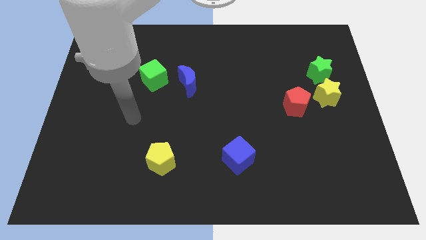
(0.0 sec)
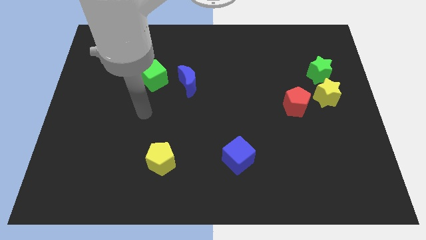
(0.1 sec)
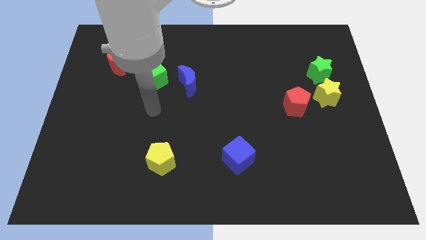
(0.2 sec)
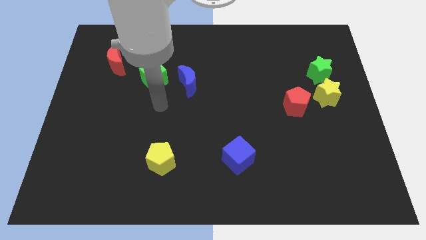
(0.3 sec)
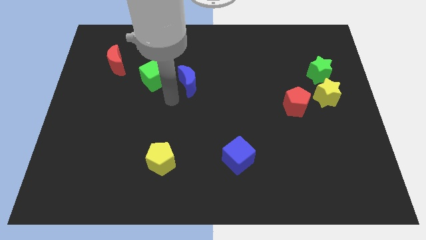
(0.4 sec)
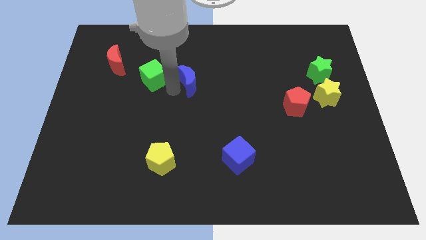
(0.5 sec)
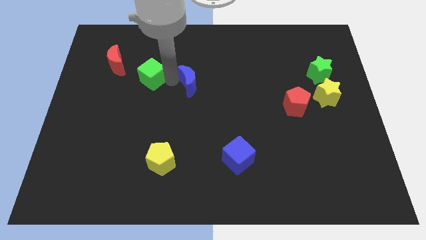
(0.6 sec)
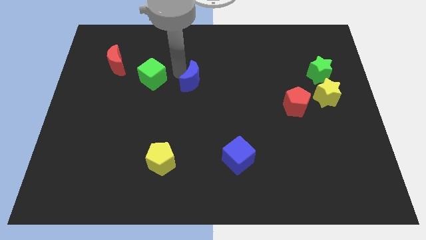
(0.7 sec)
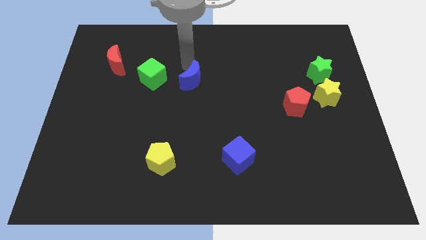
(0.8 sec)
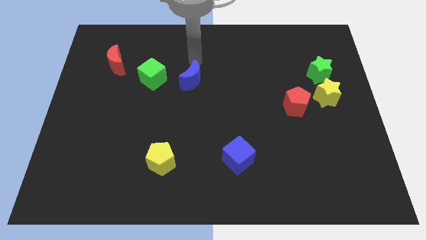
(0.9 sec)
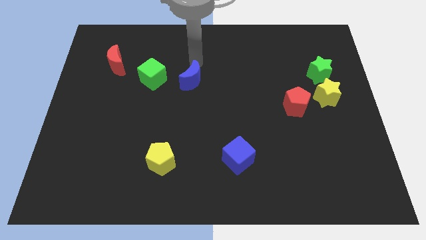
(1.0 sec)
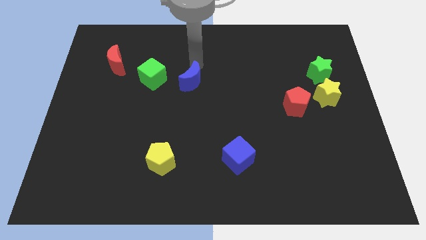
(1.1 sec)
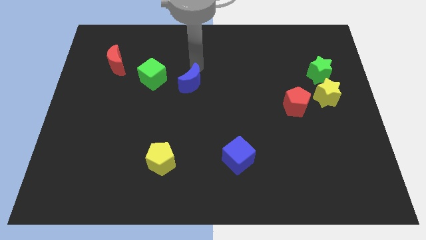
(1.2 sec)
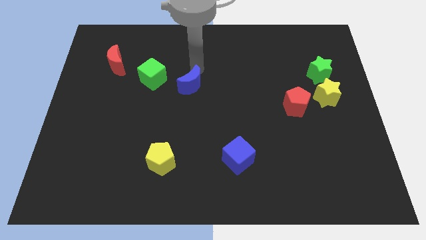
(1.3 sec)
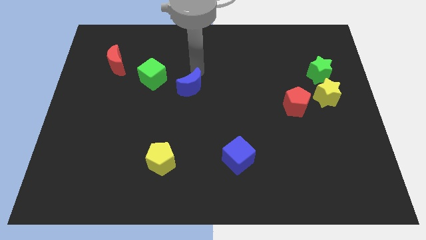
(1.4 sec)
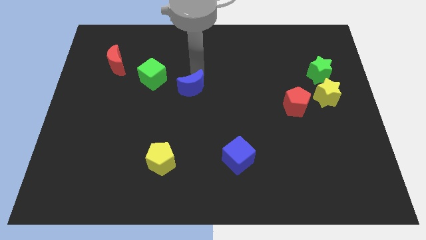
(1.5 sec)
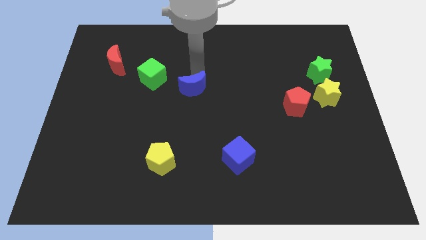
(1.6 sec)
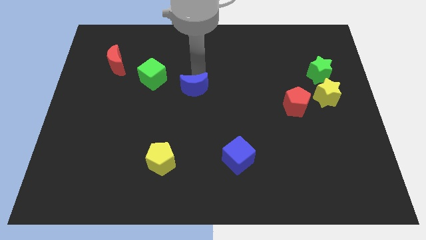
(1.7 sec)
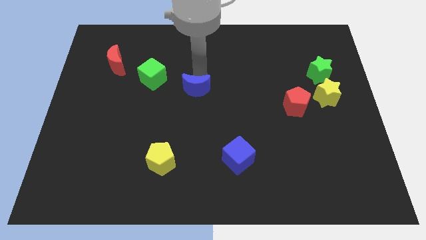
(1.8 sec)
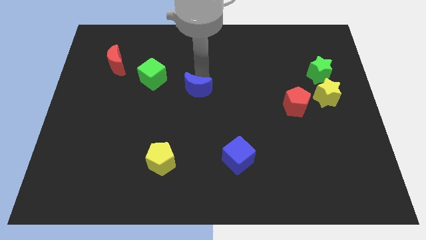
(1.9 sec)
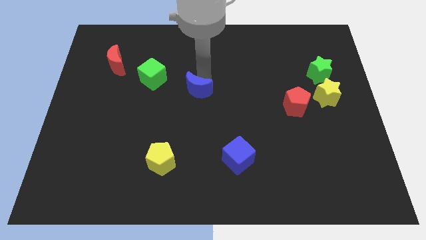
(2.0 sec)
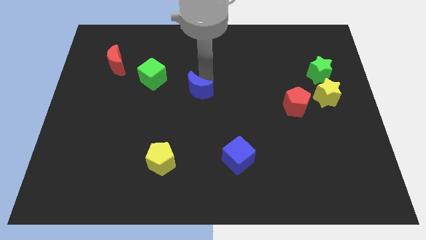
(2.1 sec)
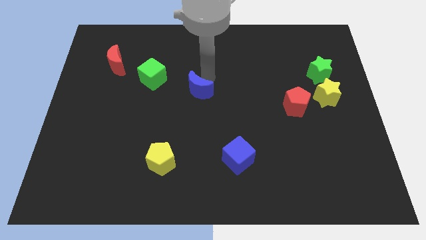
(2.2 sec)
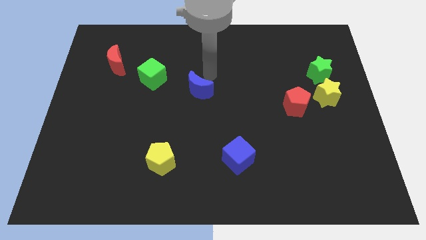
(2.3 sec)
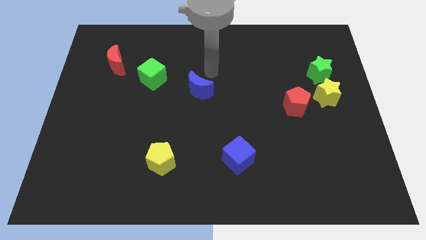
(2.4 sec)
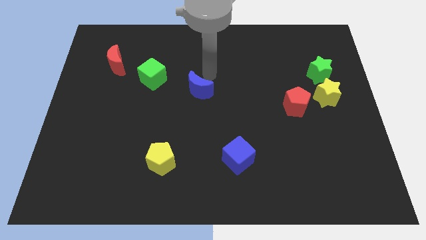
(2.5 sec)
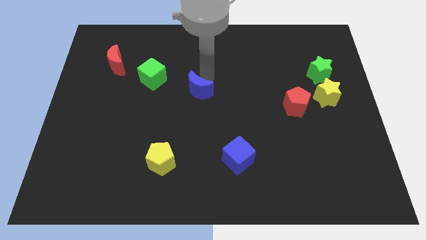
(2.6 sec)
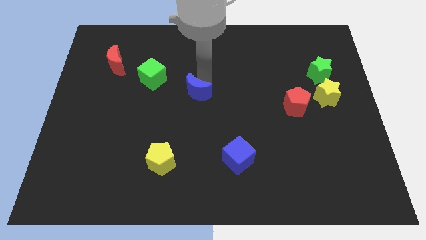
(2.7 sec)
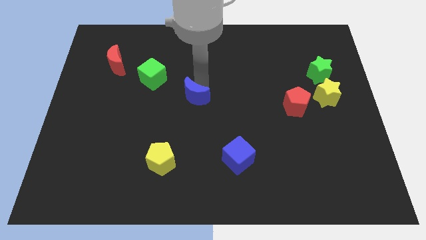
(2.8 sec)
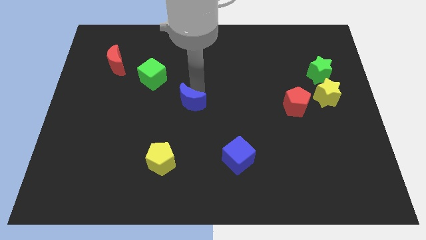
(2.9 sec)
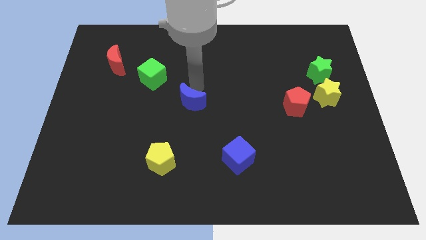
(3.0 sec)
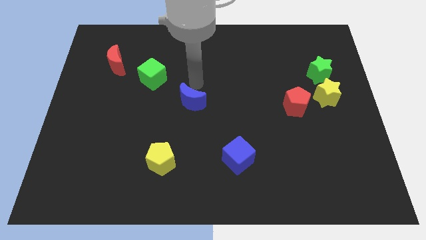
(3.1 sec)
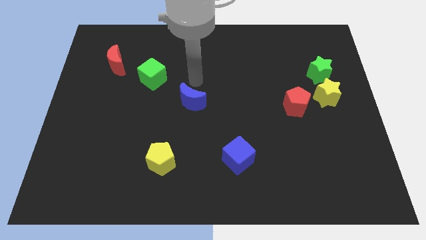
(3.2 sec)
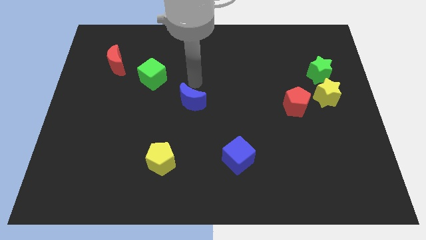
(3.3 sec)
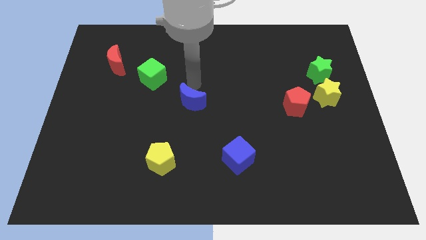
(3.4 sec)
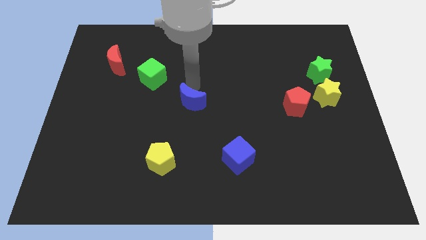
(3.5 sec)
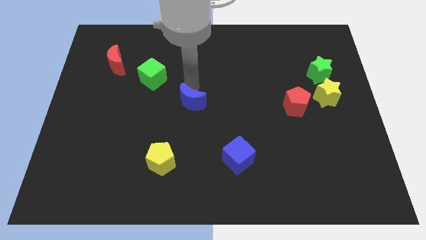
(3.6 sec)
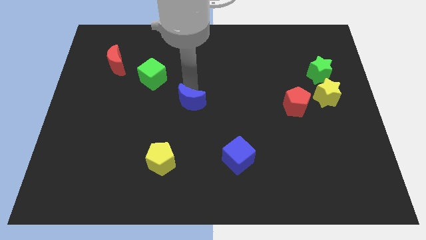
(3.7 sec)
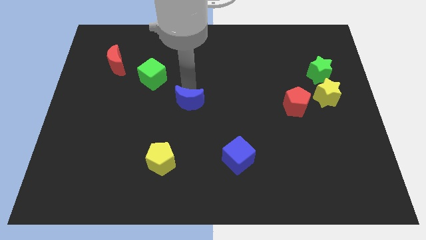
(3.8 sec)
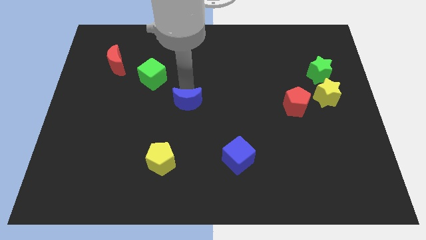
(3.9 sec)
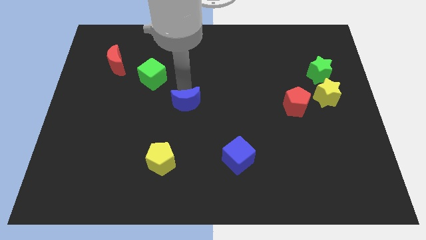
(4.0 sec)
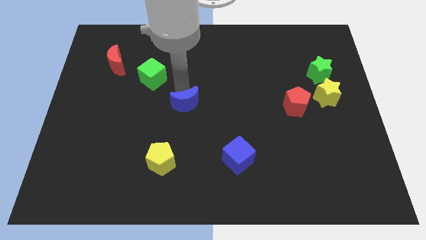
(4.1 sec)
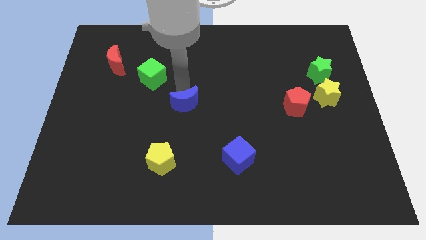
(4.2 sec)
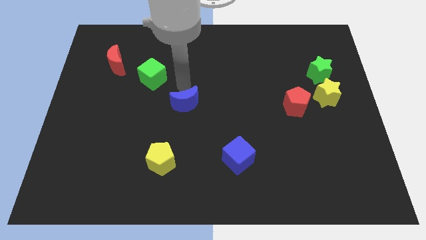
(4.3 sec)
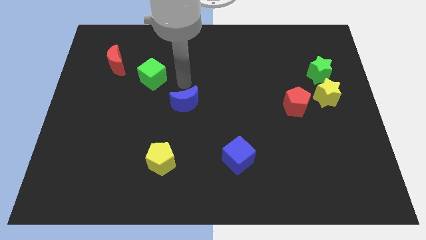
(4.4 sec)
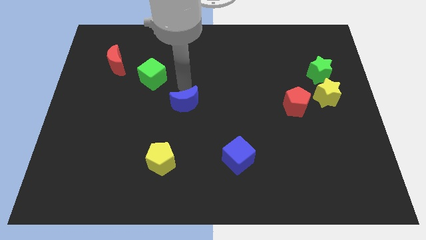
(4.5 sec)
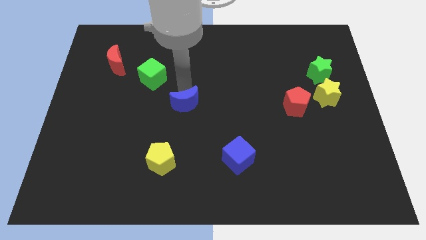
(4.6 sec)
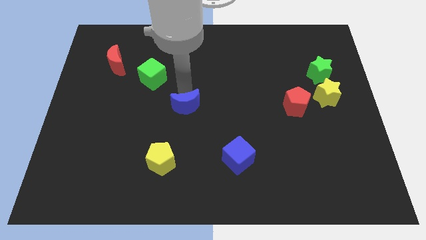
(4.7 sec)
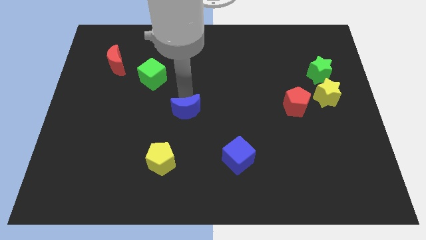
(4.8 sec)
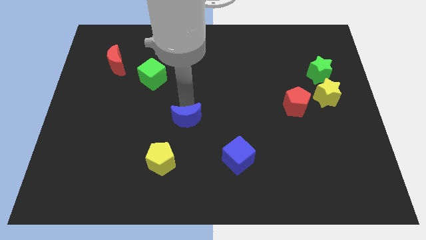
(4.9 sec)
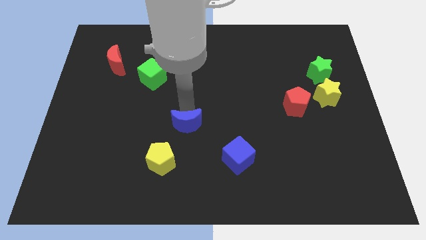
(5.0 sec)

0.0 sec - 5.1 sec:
push the blue moon to the top right side of the yellow pentagon

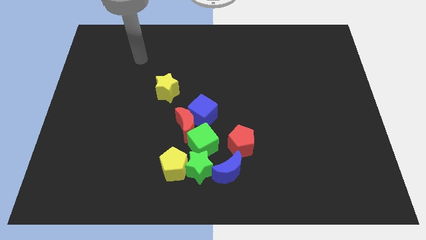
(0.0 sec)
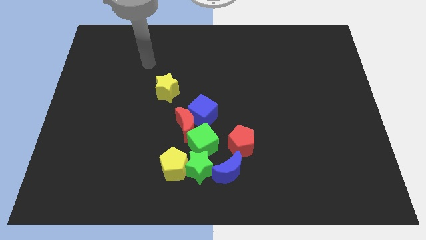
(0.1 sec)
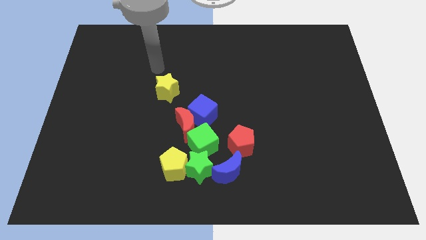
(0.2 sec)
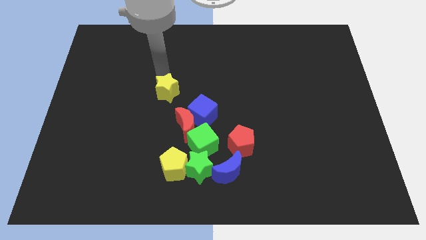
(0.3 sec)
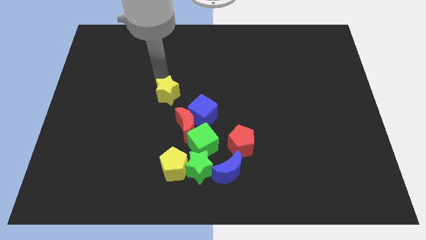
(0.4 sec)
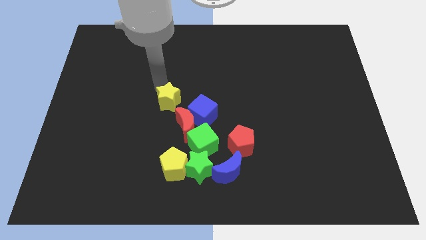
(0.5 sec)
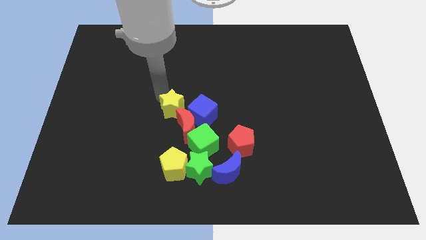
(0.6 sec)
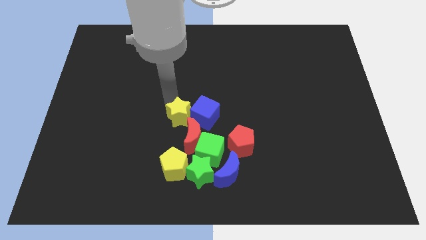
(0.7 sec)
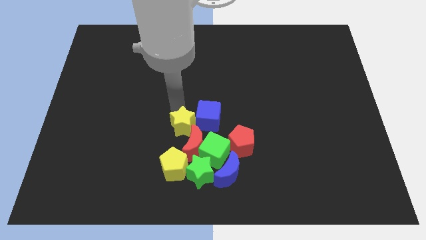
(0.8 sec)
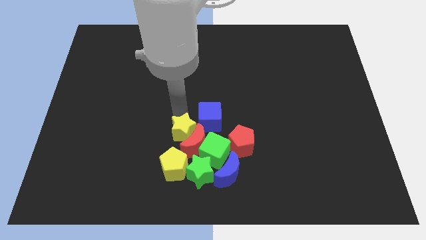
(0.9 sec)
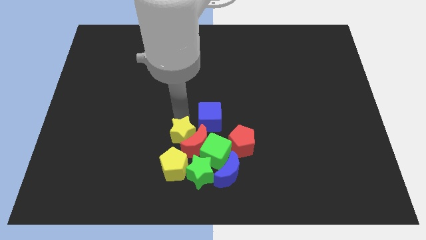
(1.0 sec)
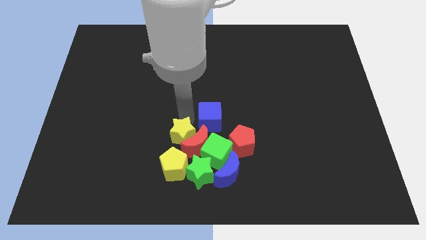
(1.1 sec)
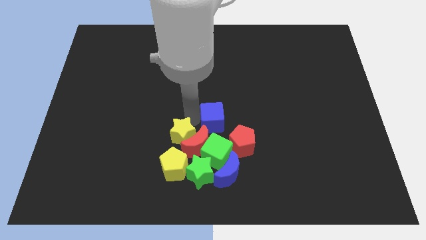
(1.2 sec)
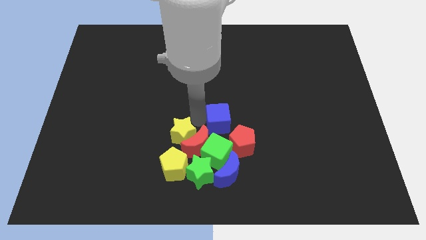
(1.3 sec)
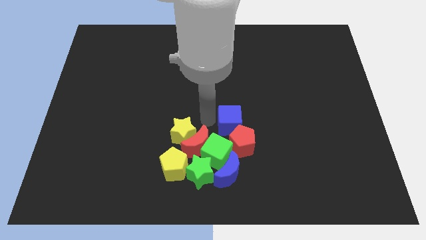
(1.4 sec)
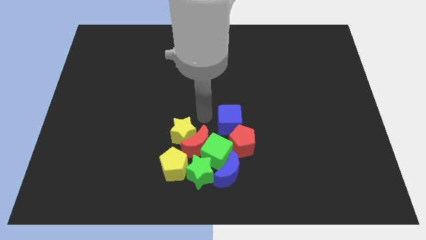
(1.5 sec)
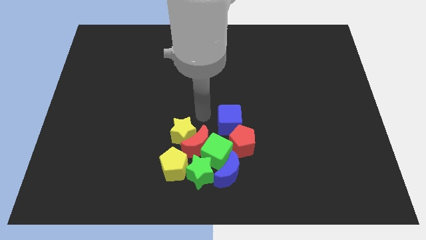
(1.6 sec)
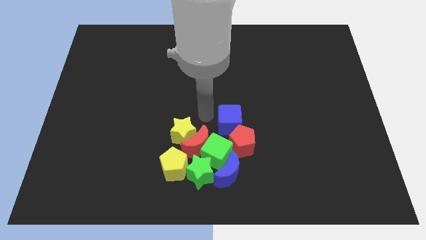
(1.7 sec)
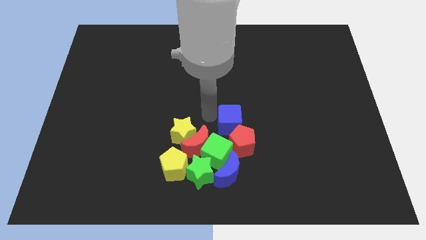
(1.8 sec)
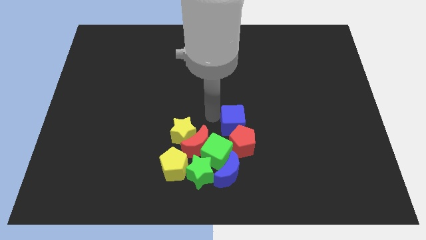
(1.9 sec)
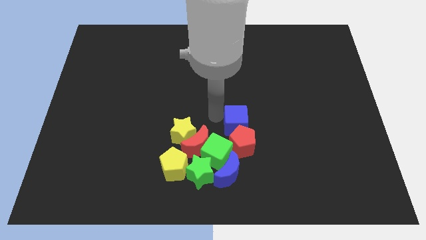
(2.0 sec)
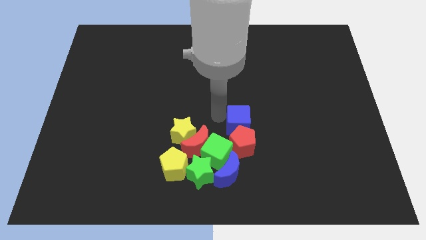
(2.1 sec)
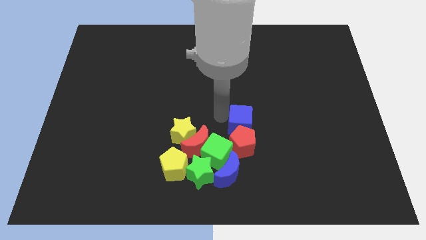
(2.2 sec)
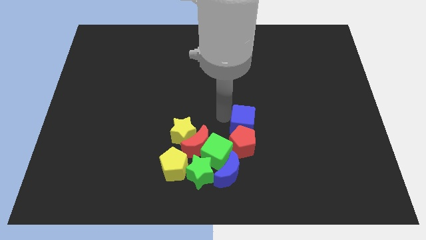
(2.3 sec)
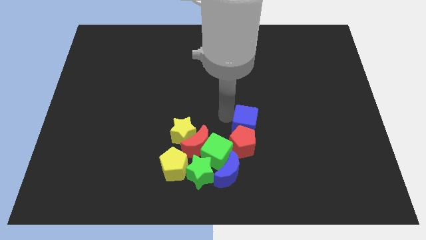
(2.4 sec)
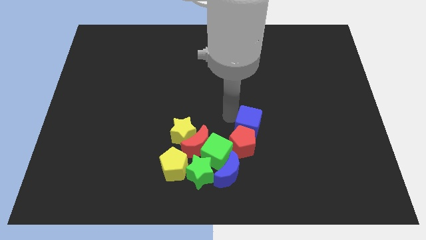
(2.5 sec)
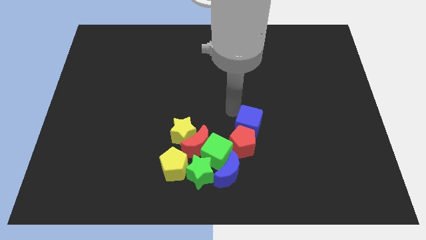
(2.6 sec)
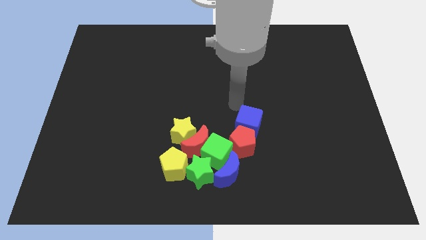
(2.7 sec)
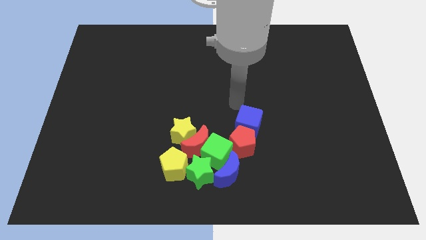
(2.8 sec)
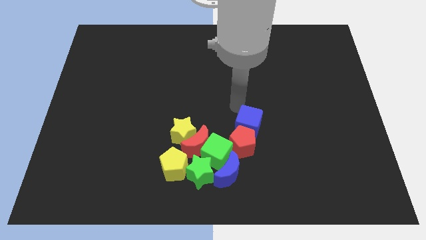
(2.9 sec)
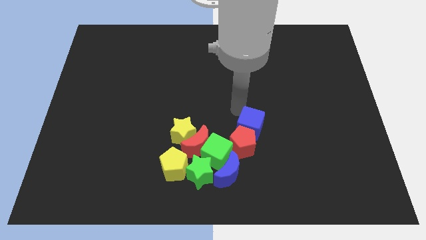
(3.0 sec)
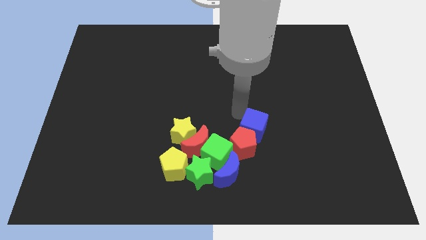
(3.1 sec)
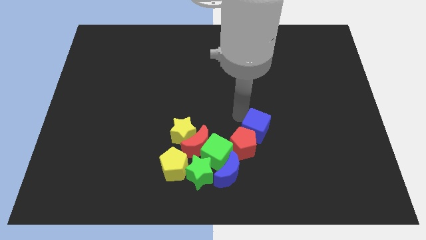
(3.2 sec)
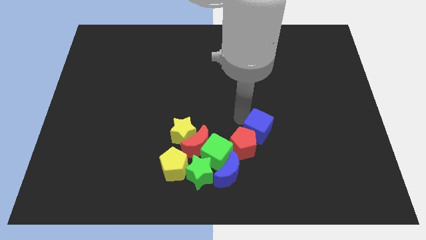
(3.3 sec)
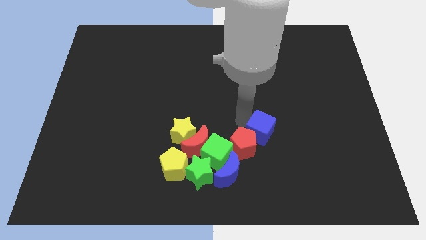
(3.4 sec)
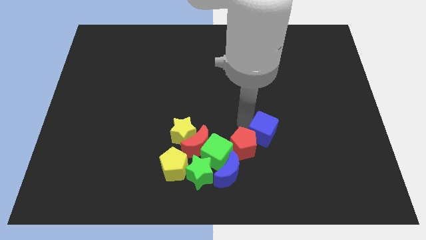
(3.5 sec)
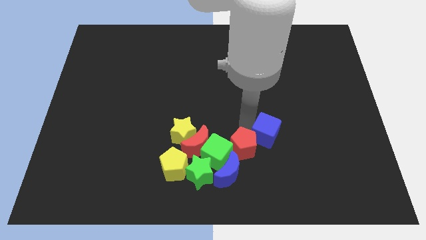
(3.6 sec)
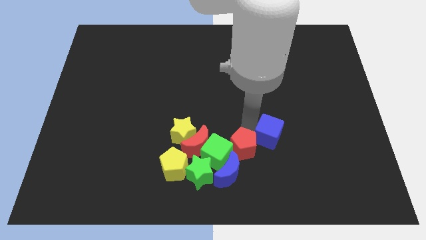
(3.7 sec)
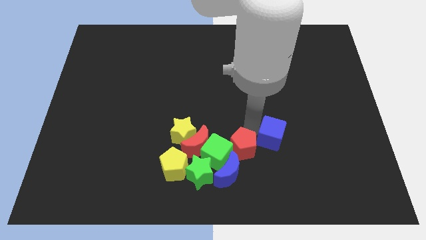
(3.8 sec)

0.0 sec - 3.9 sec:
slide the blue cube right of the green cube
